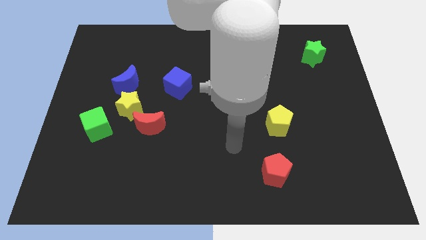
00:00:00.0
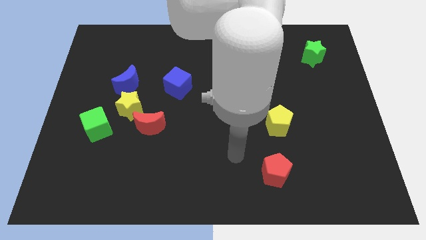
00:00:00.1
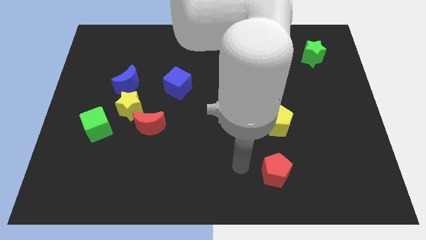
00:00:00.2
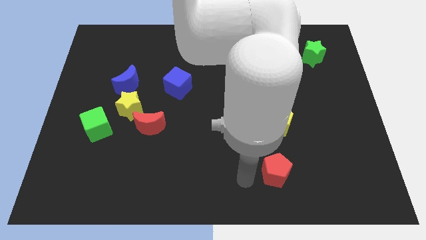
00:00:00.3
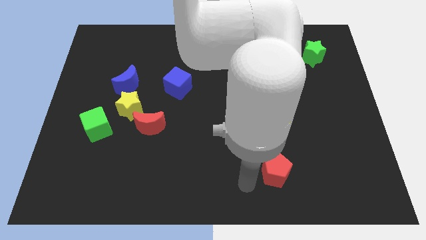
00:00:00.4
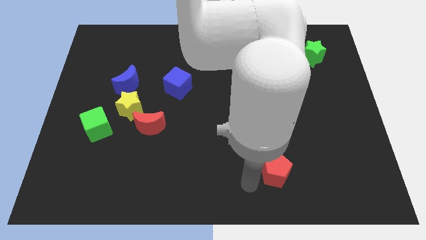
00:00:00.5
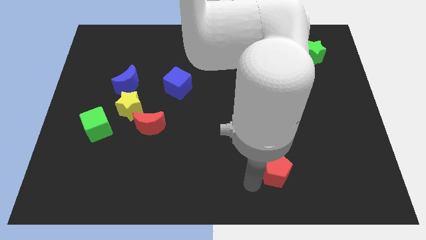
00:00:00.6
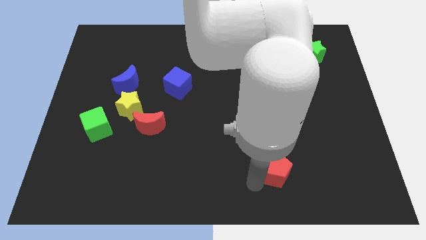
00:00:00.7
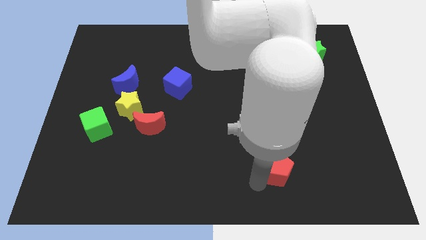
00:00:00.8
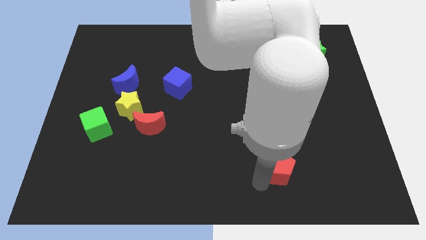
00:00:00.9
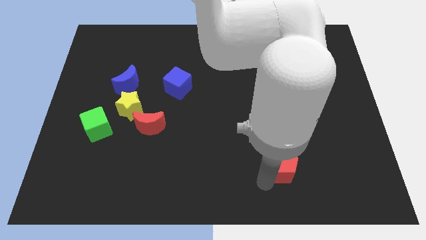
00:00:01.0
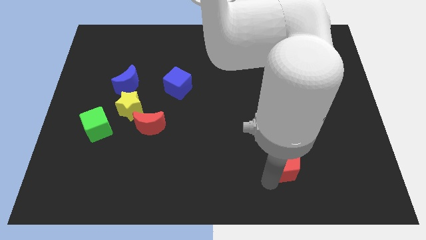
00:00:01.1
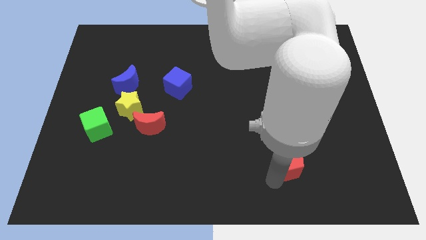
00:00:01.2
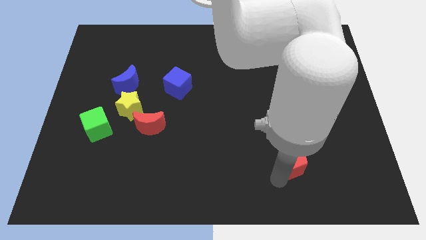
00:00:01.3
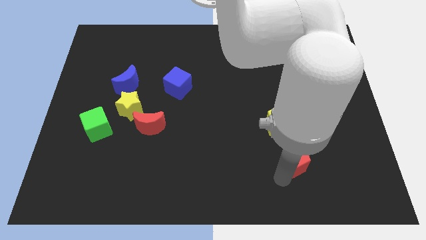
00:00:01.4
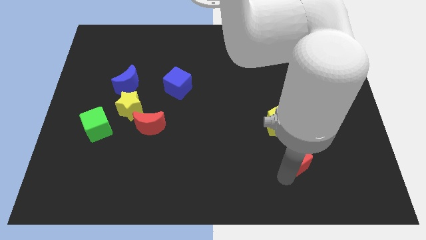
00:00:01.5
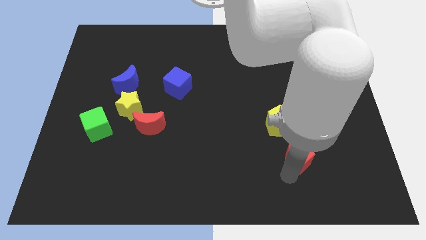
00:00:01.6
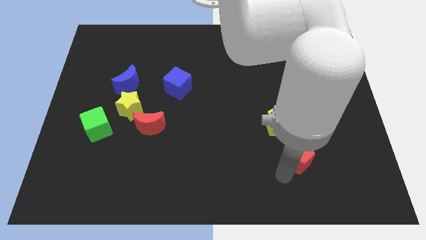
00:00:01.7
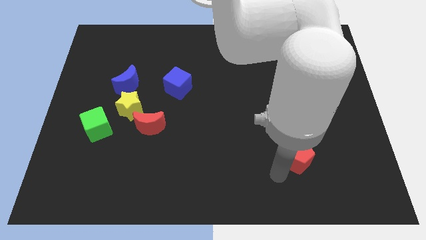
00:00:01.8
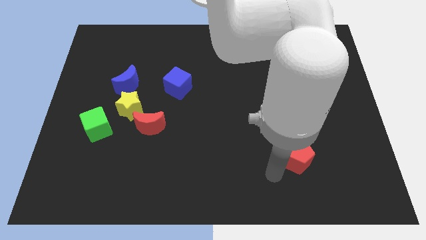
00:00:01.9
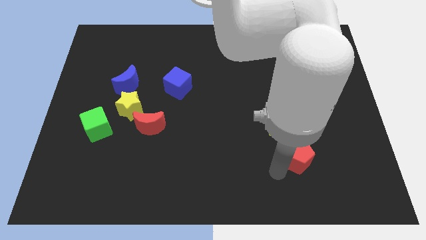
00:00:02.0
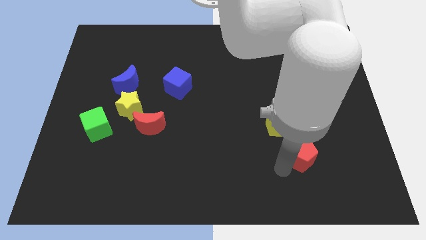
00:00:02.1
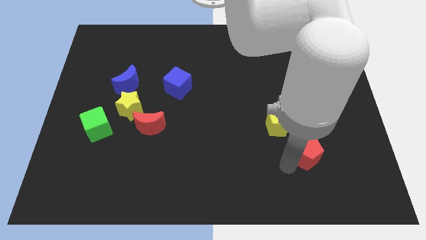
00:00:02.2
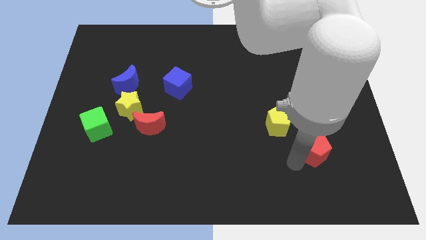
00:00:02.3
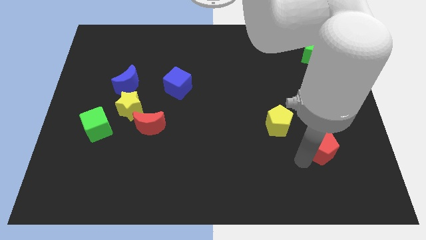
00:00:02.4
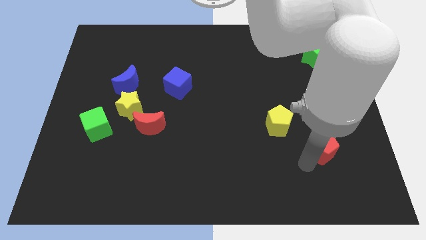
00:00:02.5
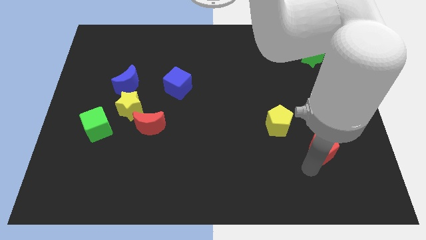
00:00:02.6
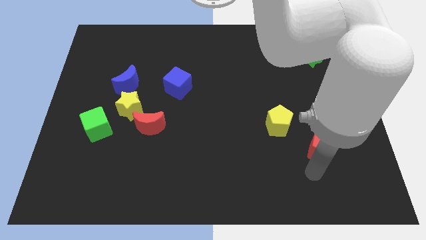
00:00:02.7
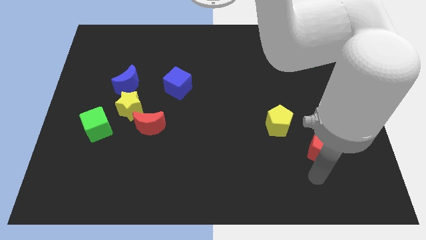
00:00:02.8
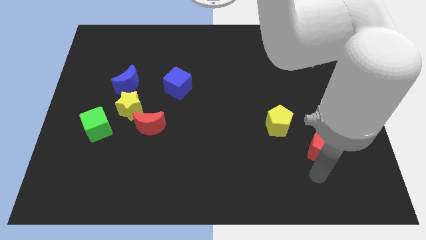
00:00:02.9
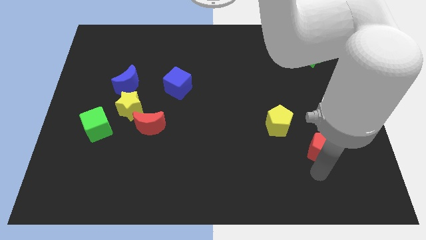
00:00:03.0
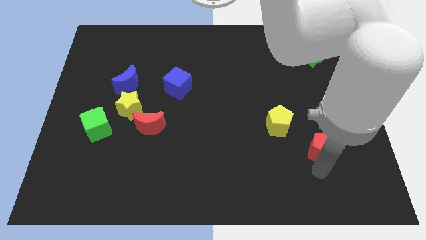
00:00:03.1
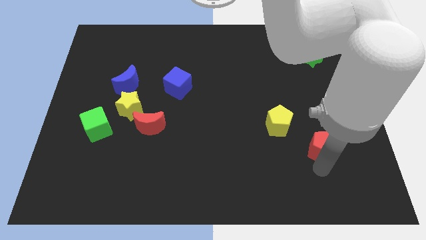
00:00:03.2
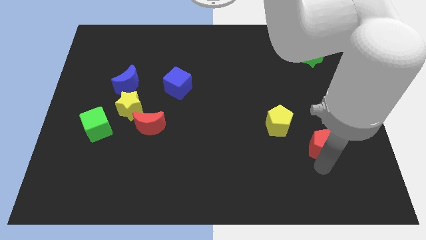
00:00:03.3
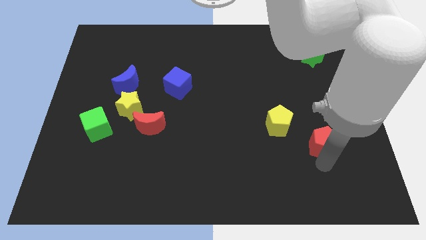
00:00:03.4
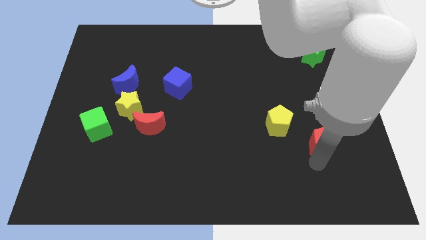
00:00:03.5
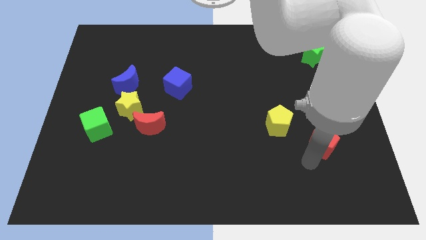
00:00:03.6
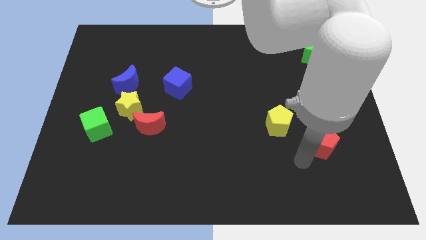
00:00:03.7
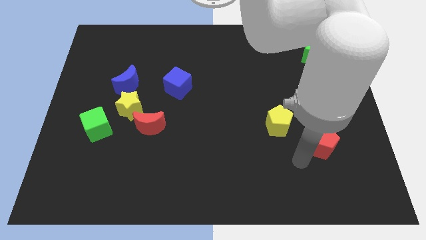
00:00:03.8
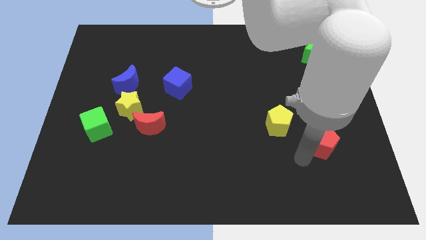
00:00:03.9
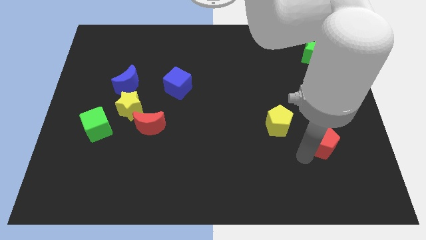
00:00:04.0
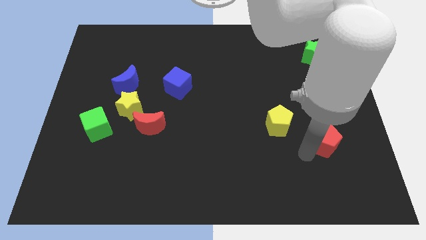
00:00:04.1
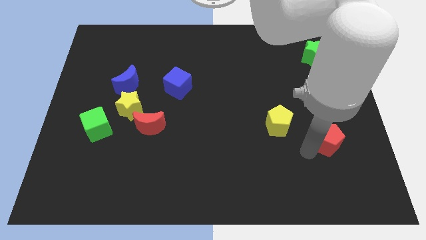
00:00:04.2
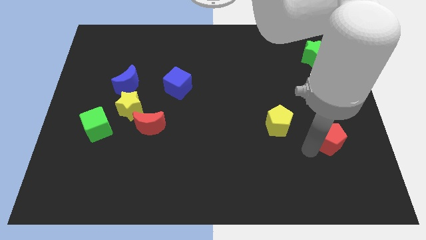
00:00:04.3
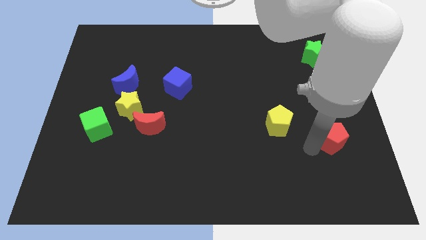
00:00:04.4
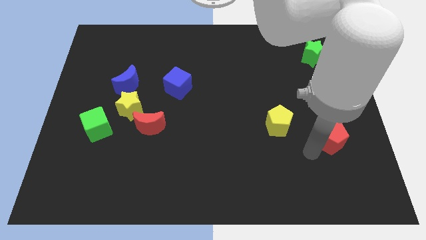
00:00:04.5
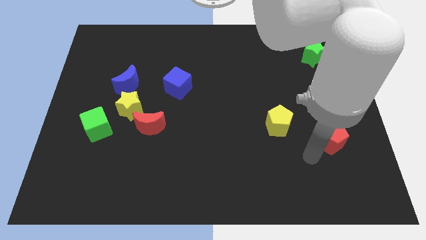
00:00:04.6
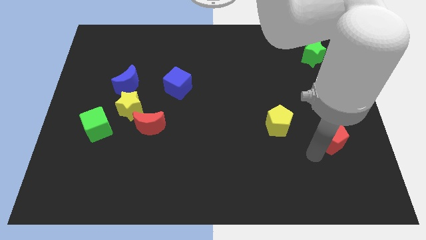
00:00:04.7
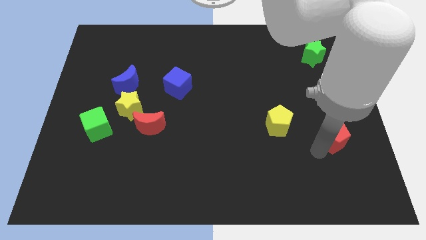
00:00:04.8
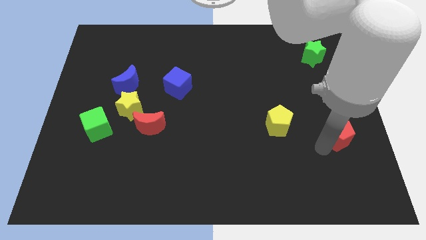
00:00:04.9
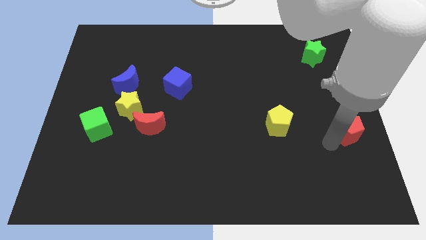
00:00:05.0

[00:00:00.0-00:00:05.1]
slide the red pentagon to the right side of the board

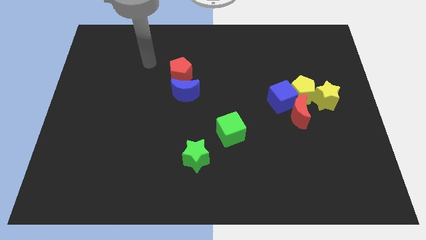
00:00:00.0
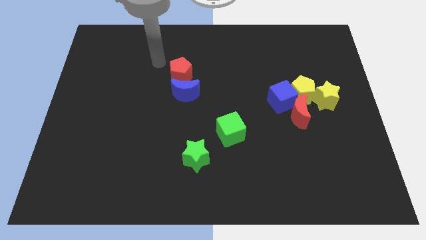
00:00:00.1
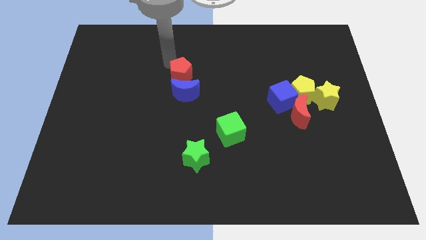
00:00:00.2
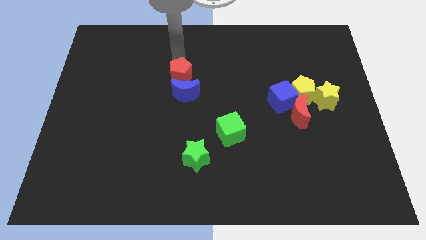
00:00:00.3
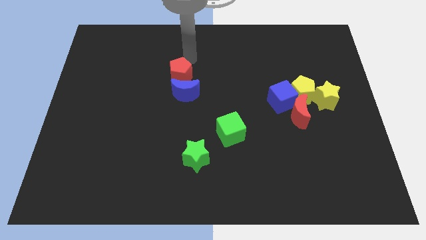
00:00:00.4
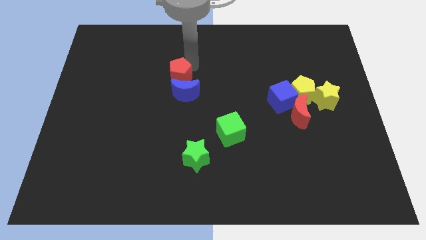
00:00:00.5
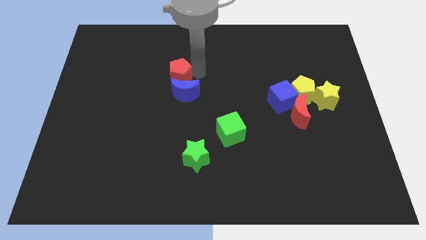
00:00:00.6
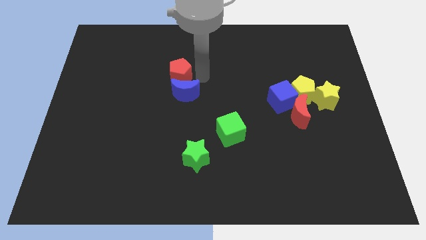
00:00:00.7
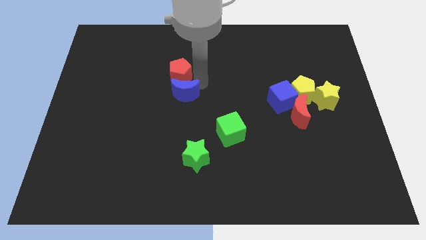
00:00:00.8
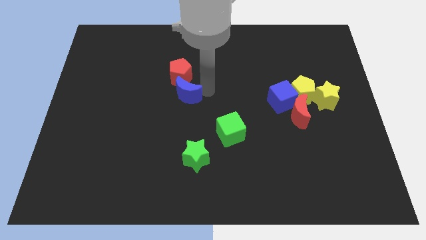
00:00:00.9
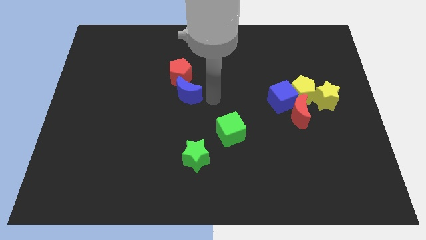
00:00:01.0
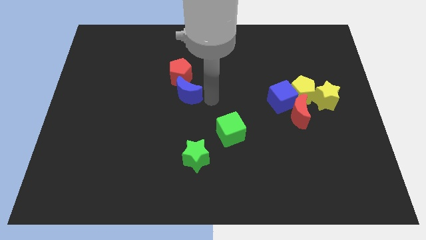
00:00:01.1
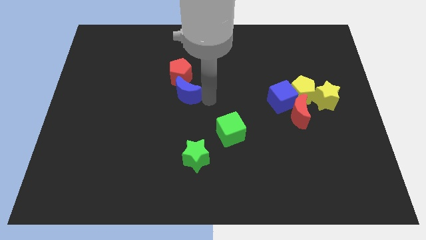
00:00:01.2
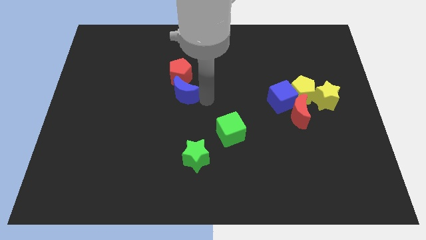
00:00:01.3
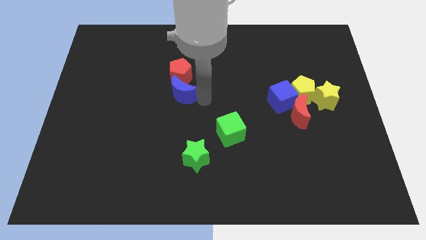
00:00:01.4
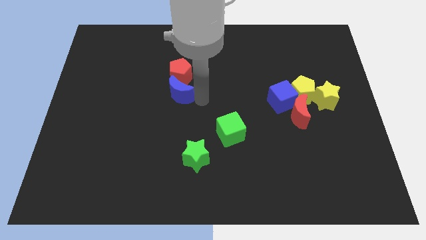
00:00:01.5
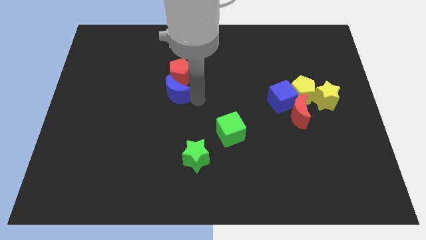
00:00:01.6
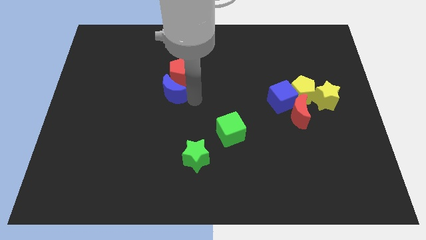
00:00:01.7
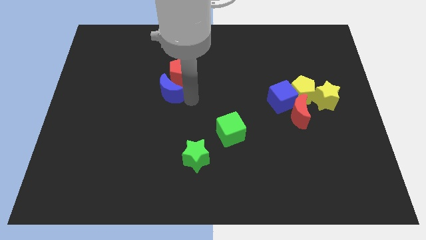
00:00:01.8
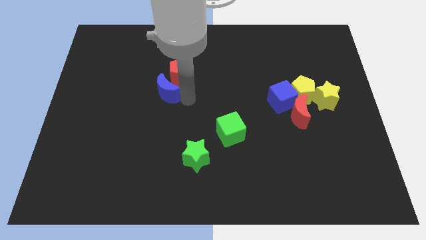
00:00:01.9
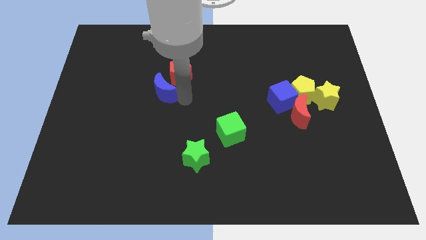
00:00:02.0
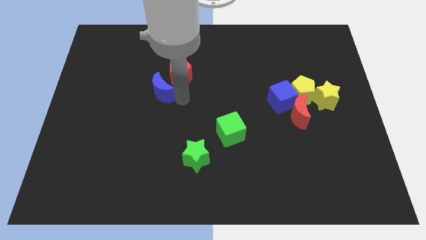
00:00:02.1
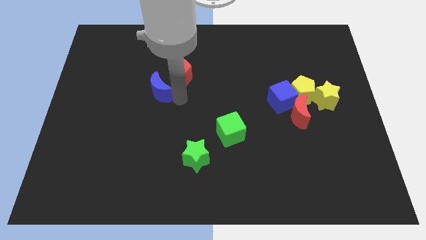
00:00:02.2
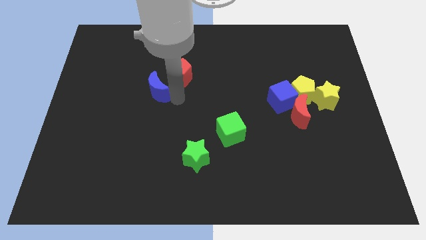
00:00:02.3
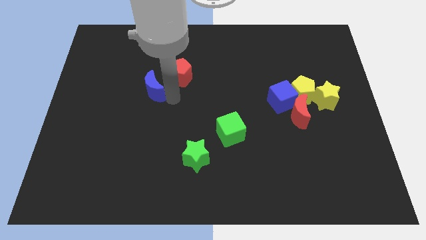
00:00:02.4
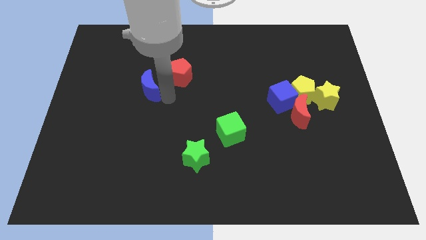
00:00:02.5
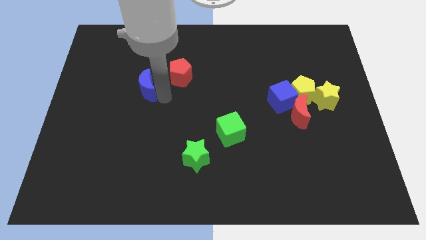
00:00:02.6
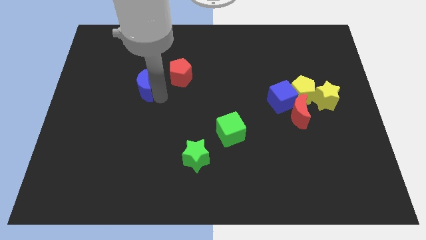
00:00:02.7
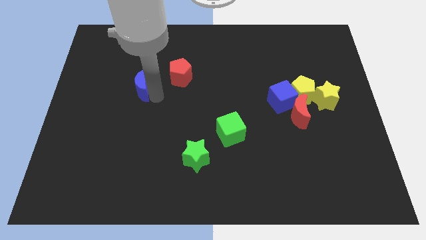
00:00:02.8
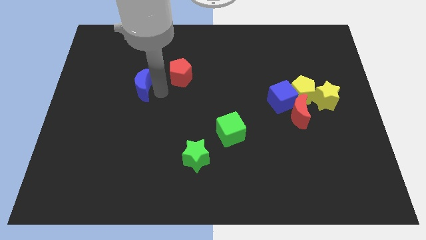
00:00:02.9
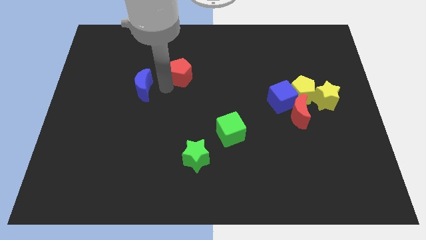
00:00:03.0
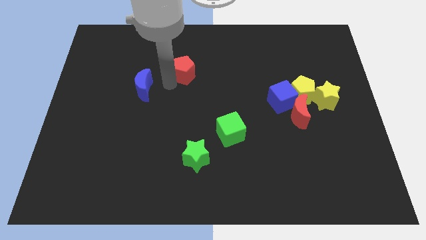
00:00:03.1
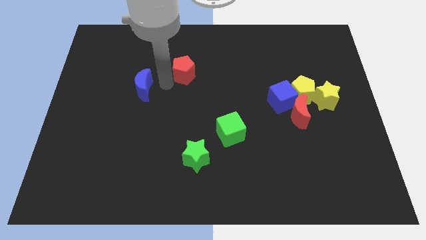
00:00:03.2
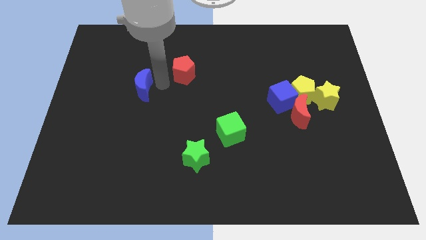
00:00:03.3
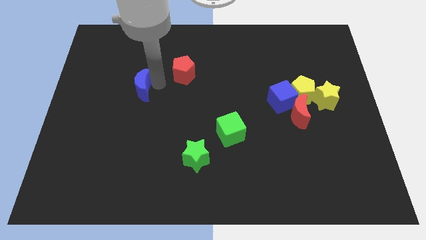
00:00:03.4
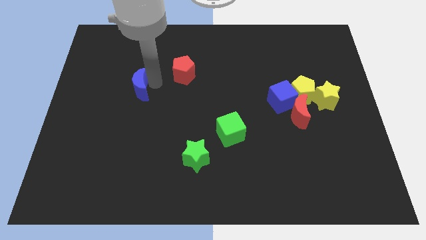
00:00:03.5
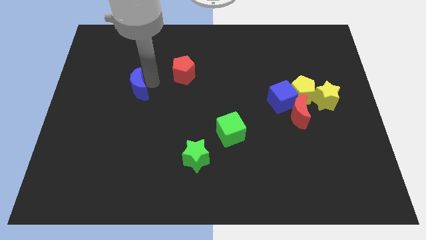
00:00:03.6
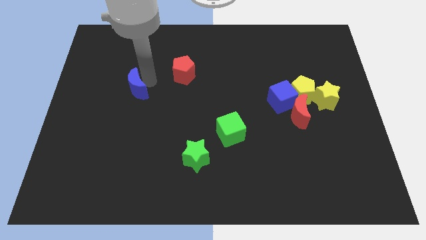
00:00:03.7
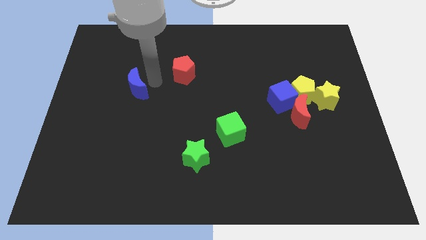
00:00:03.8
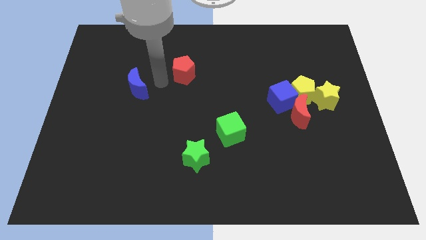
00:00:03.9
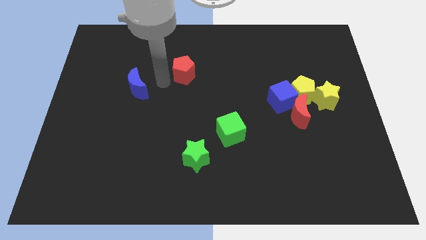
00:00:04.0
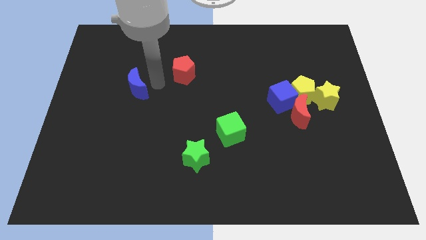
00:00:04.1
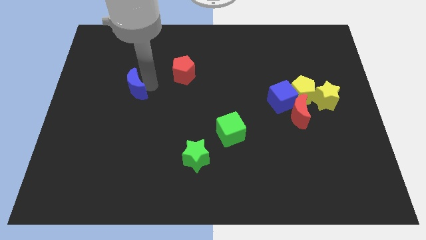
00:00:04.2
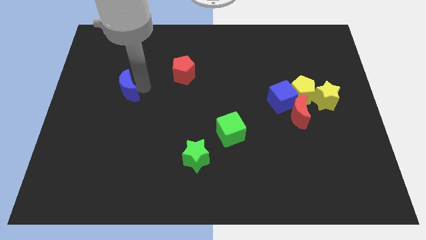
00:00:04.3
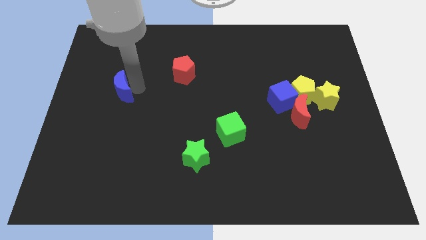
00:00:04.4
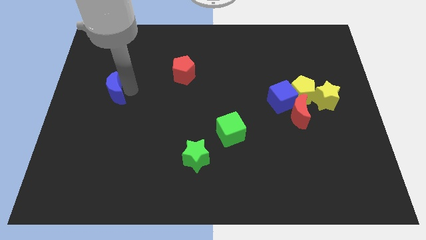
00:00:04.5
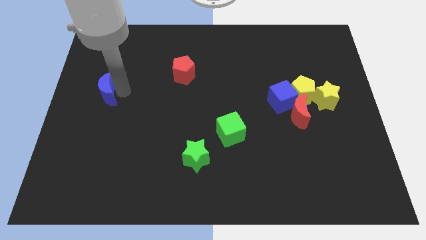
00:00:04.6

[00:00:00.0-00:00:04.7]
push the blue moon to the left side
